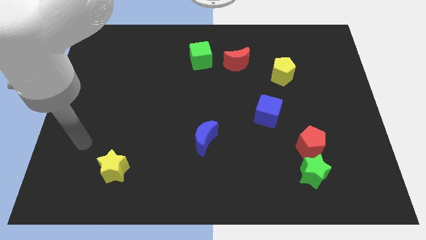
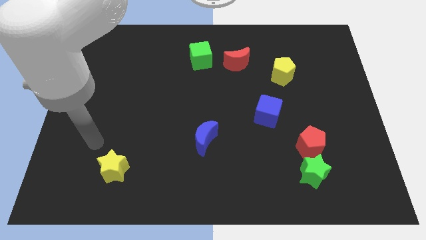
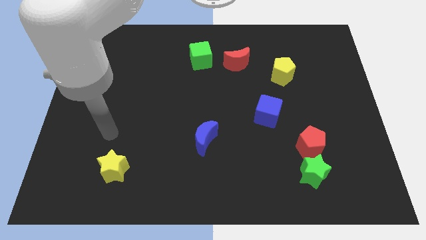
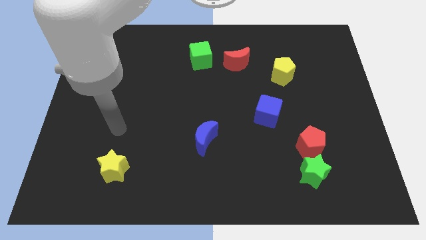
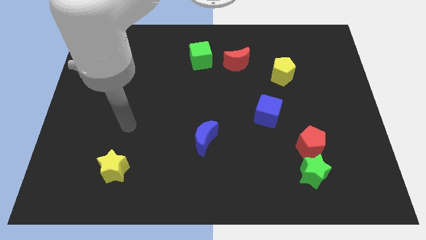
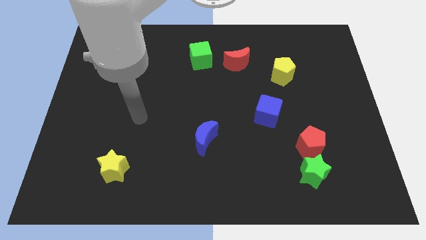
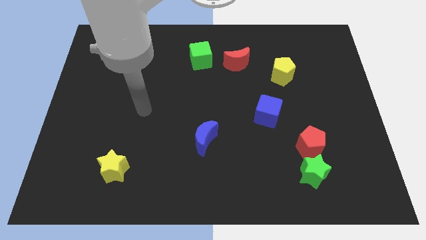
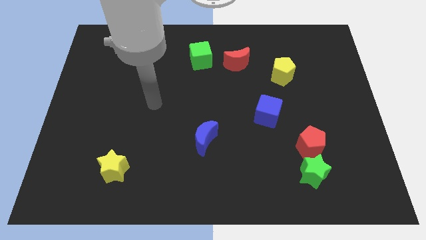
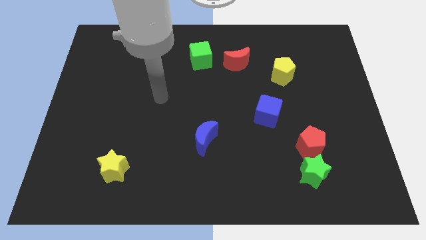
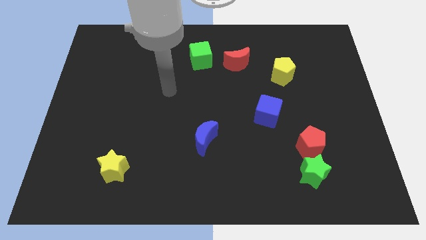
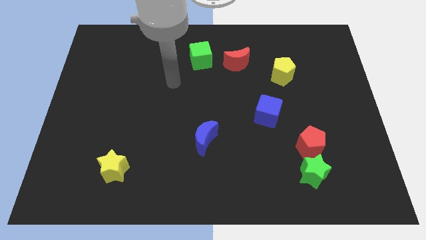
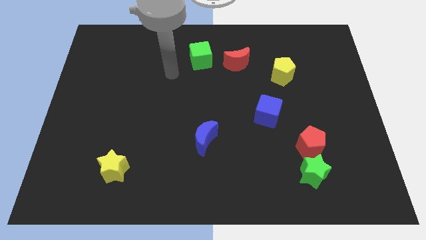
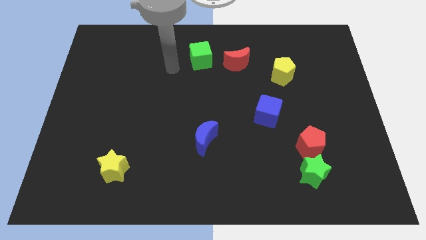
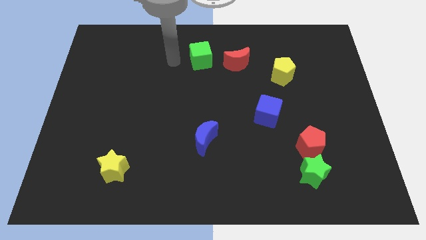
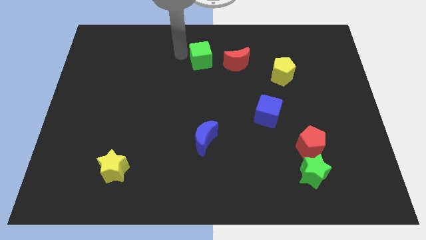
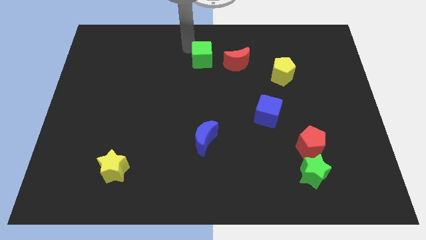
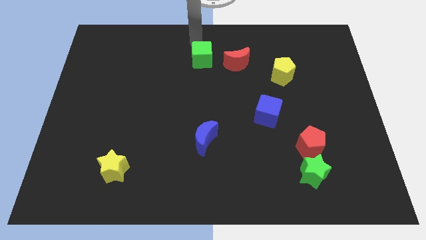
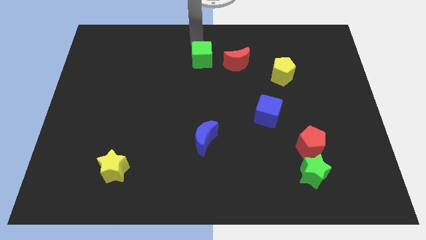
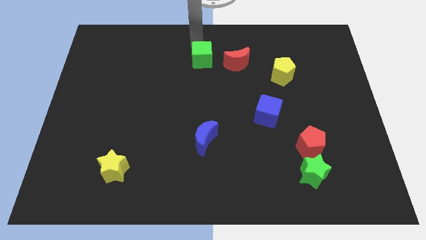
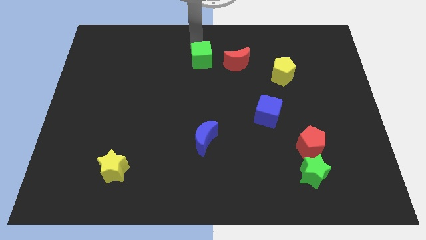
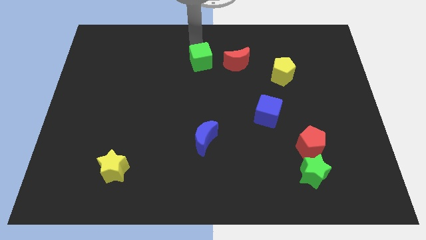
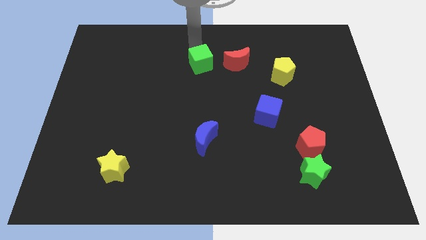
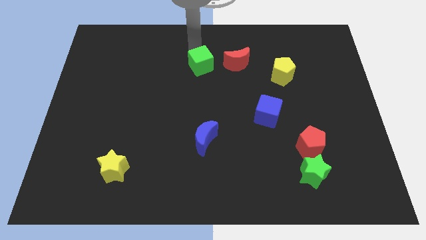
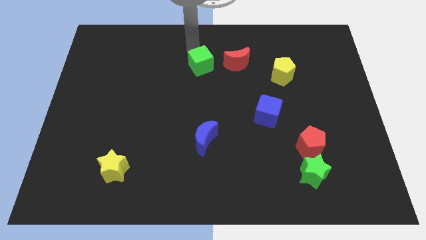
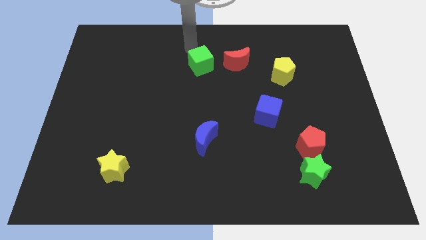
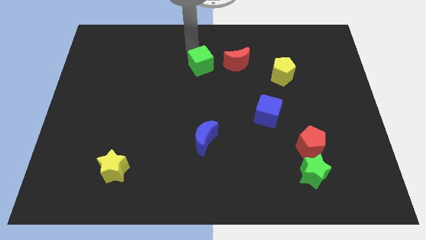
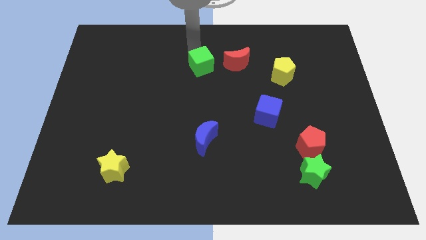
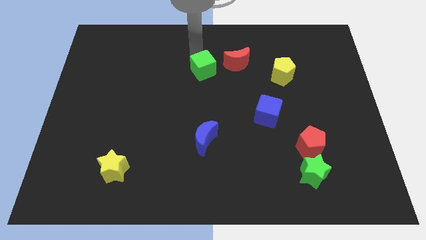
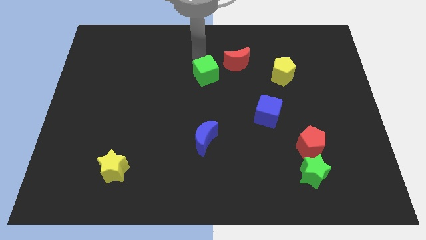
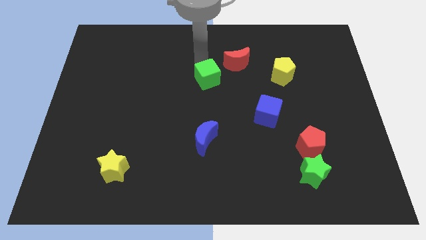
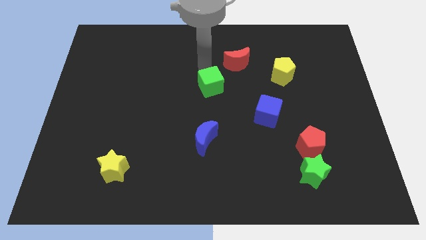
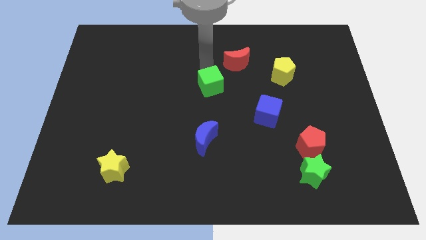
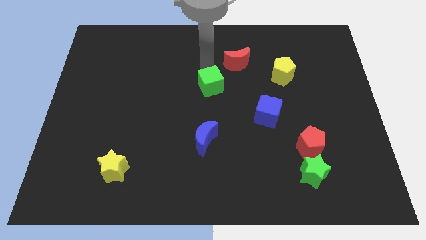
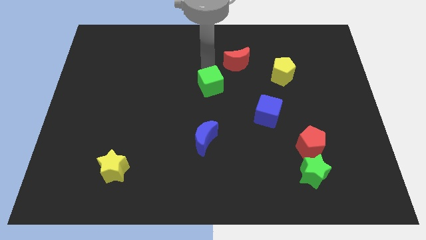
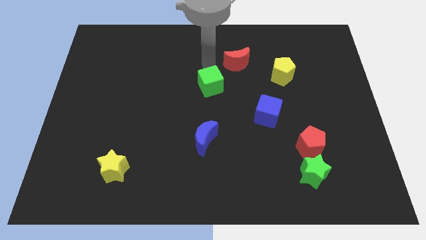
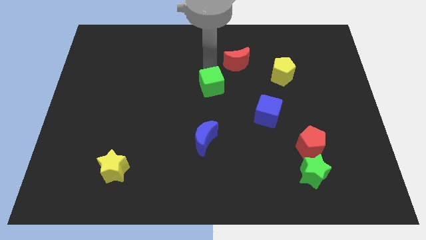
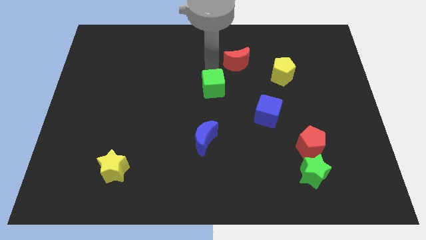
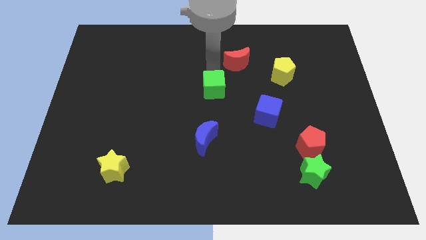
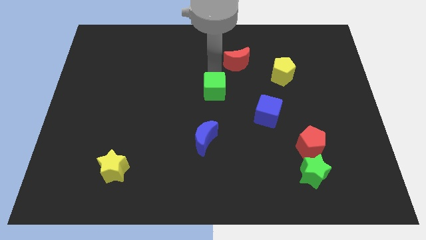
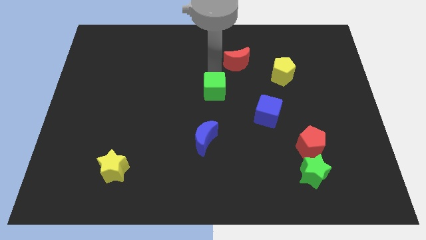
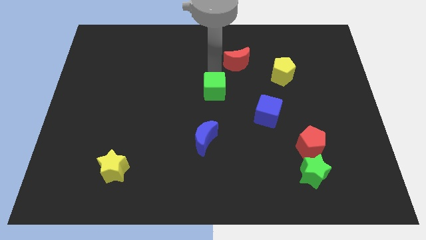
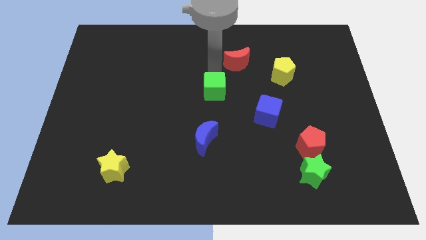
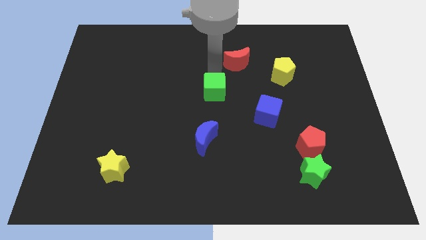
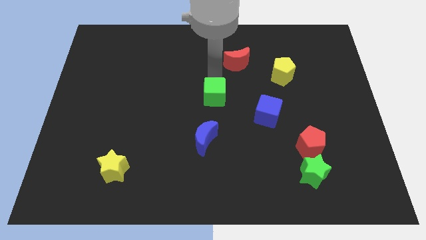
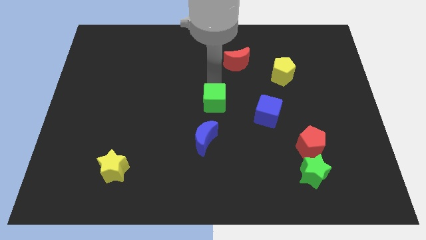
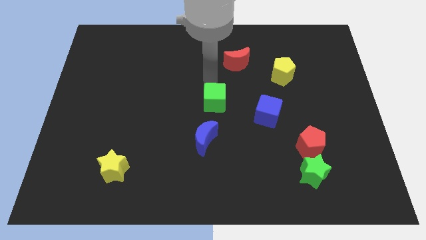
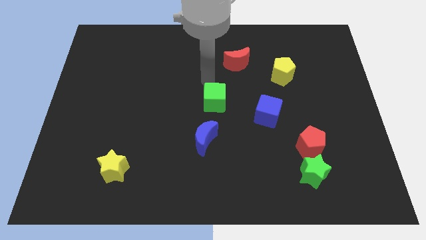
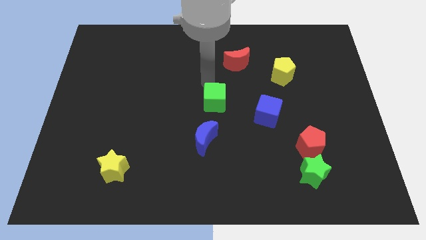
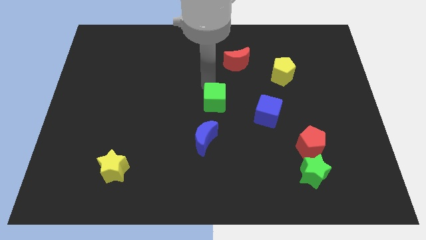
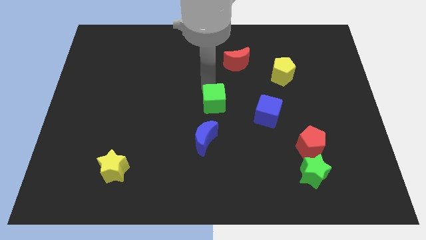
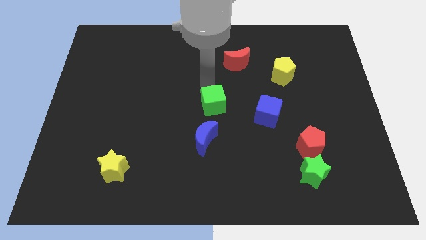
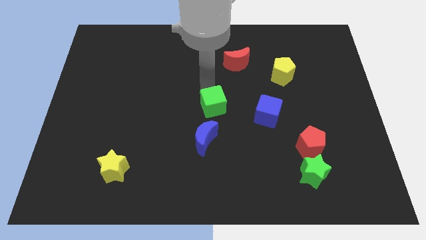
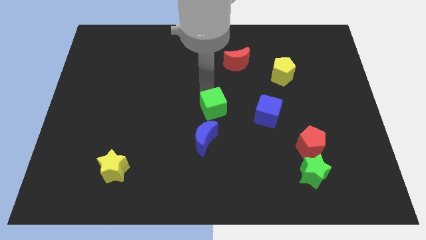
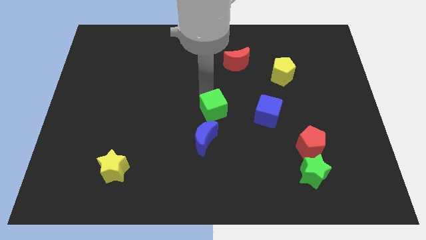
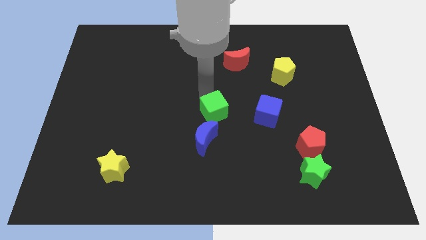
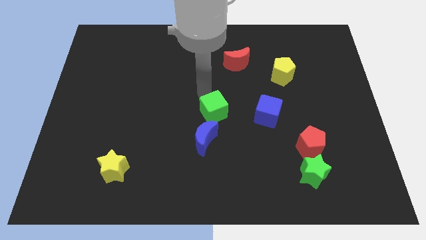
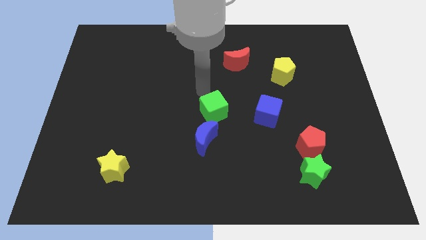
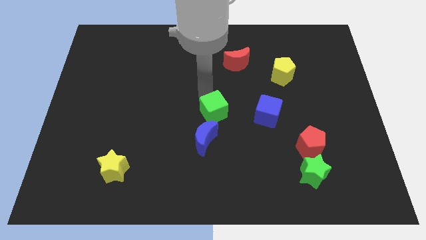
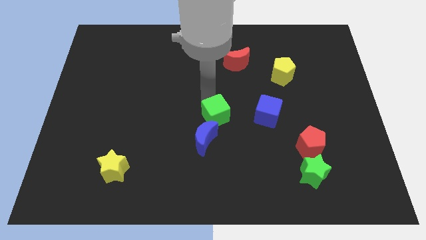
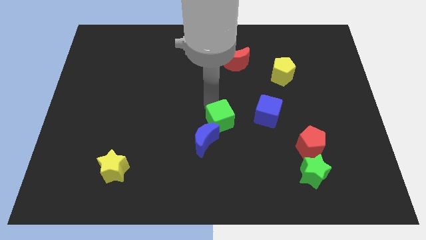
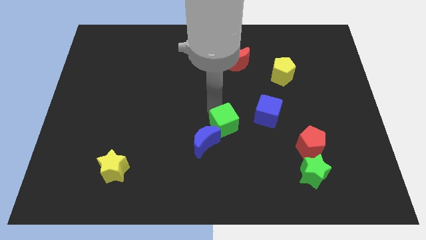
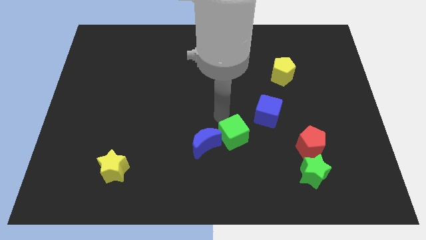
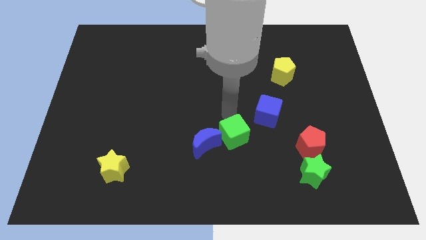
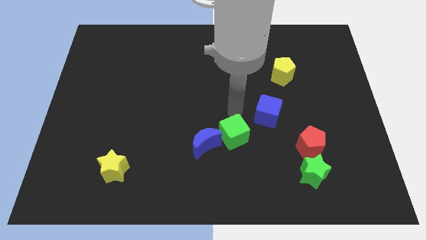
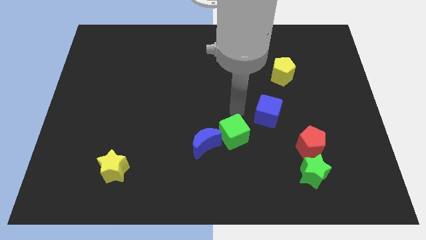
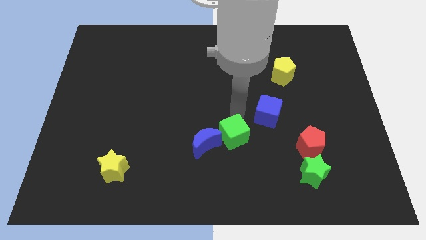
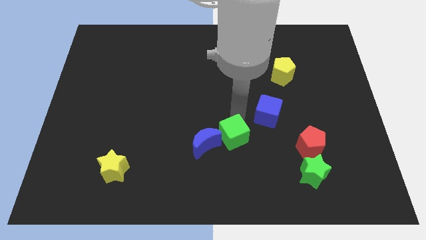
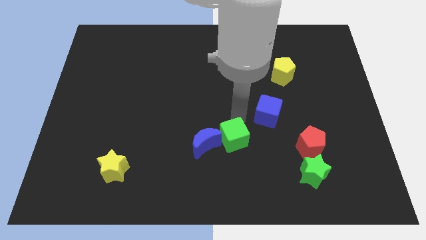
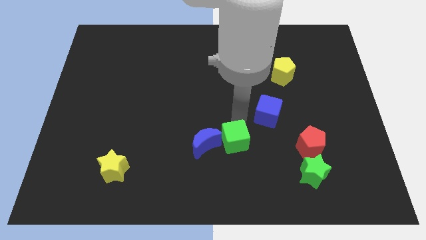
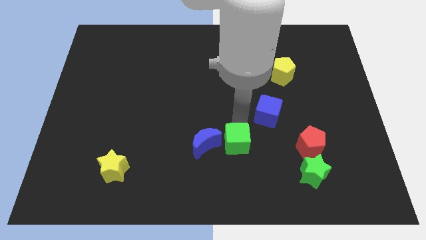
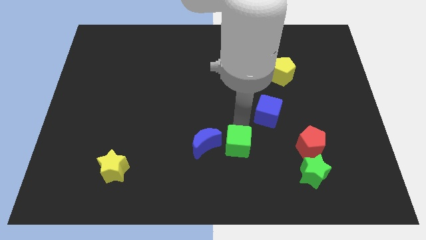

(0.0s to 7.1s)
move the green cube to the bottom right side of the blue moon
